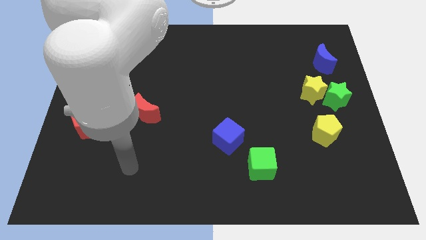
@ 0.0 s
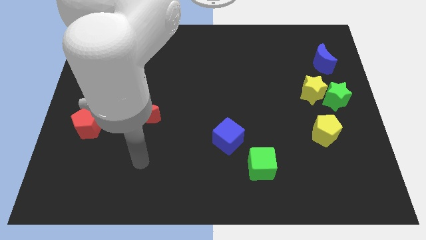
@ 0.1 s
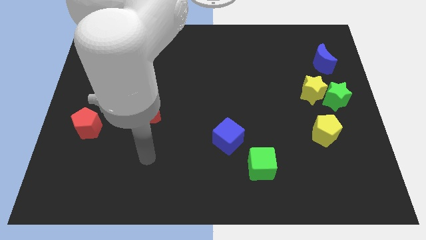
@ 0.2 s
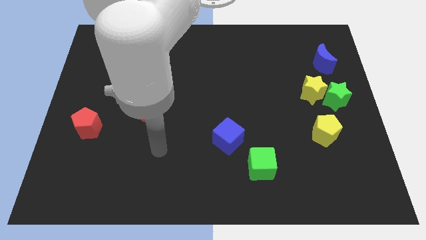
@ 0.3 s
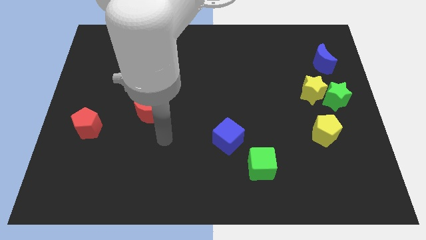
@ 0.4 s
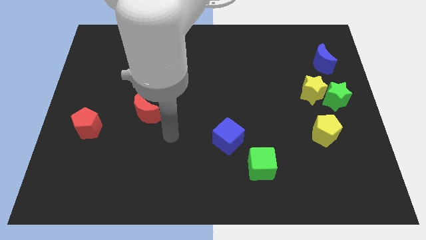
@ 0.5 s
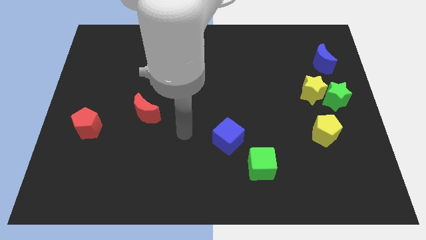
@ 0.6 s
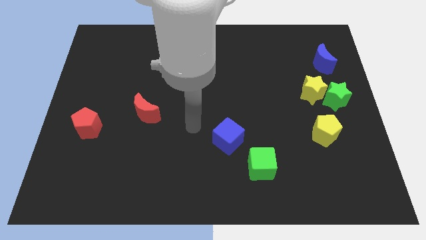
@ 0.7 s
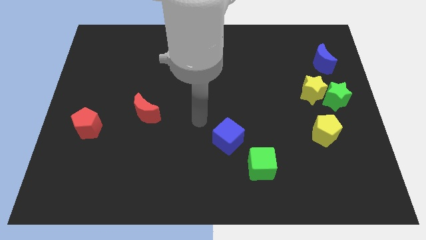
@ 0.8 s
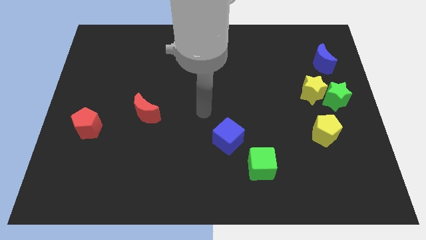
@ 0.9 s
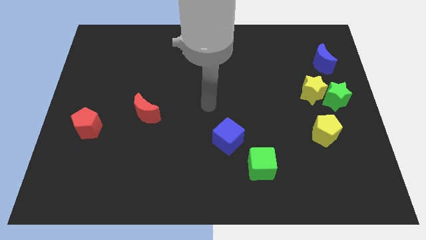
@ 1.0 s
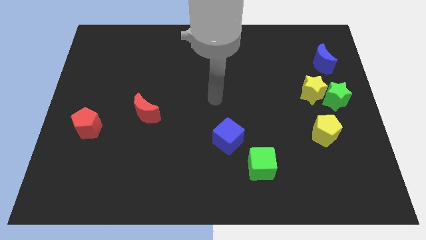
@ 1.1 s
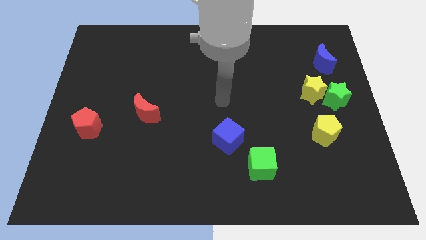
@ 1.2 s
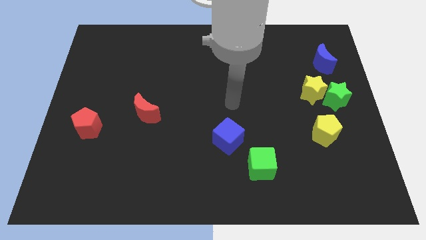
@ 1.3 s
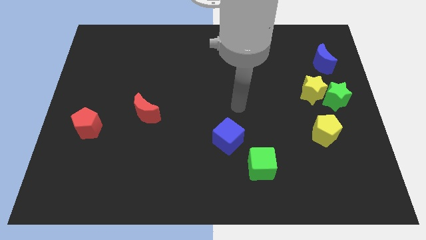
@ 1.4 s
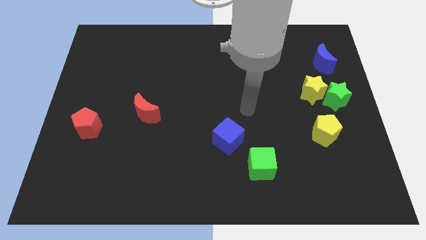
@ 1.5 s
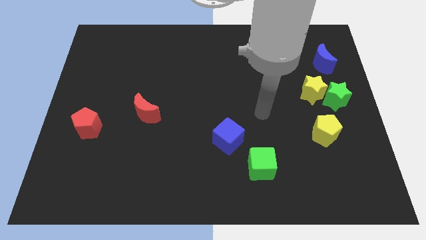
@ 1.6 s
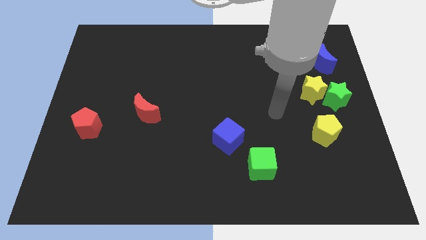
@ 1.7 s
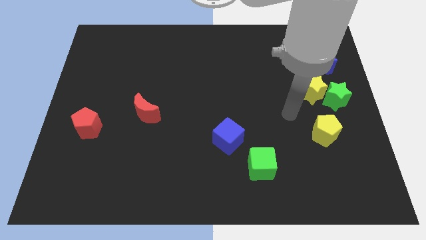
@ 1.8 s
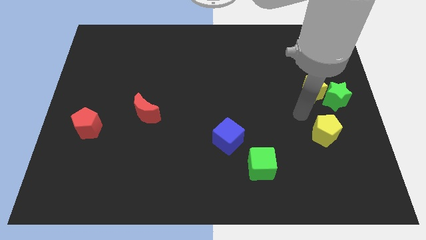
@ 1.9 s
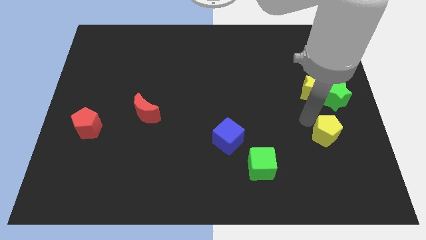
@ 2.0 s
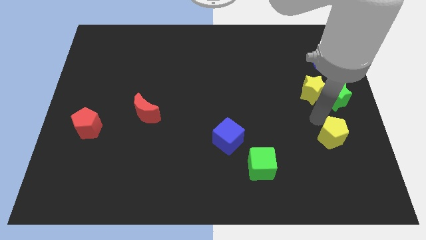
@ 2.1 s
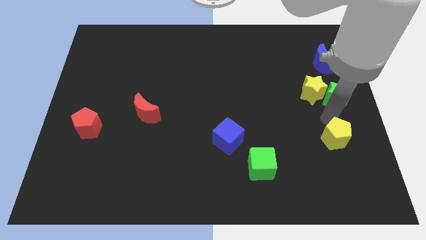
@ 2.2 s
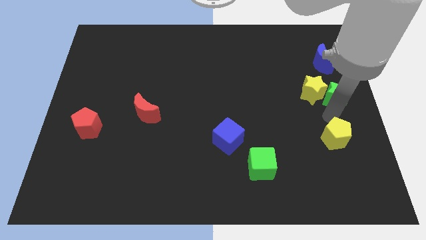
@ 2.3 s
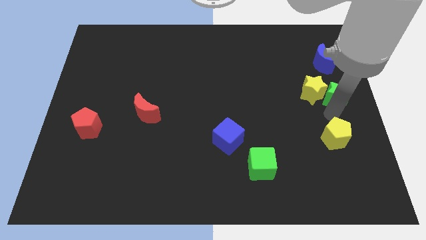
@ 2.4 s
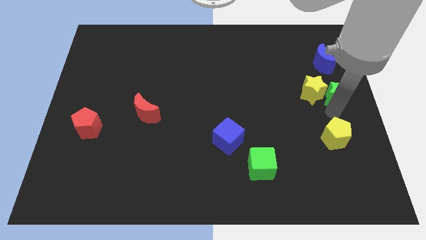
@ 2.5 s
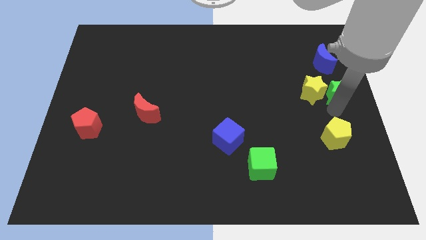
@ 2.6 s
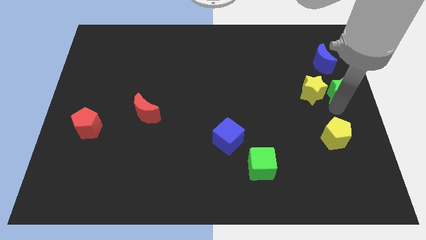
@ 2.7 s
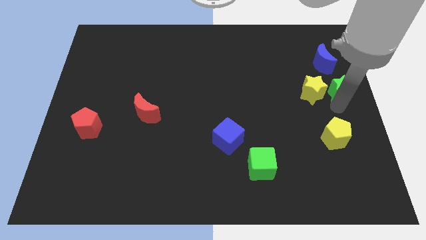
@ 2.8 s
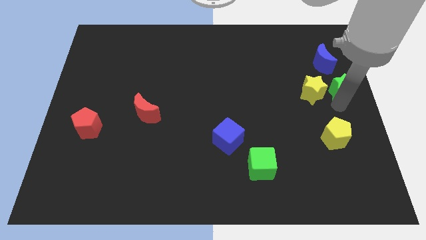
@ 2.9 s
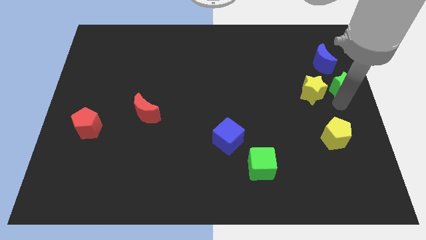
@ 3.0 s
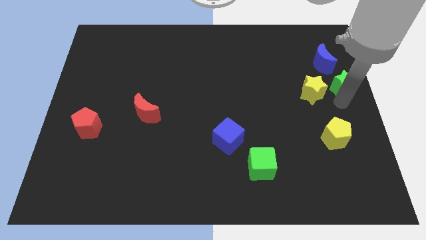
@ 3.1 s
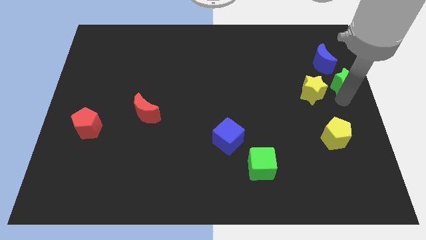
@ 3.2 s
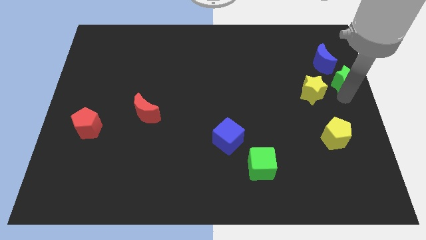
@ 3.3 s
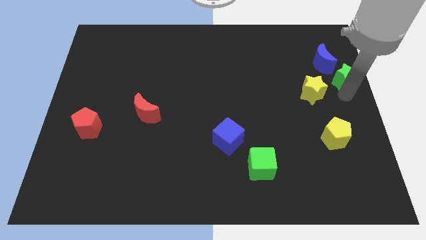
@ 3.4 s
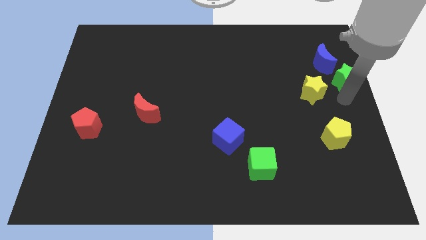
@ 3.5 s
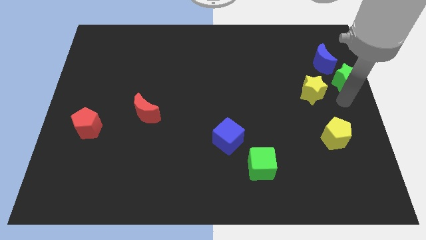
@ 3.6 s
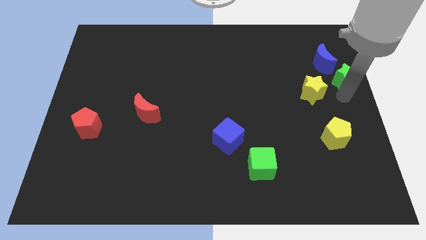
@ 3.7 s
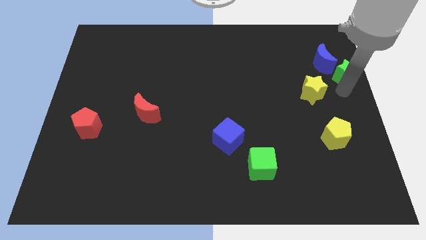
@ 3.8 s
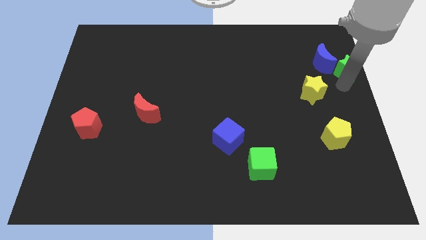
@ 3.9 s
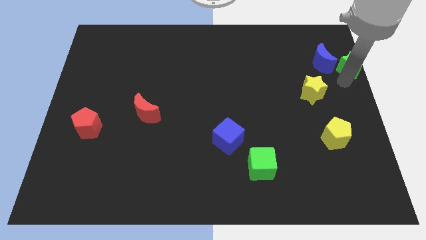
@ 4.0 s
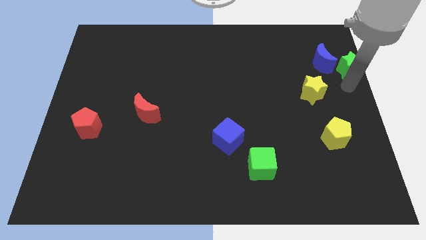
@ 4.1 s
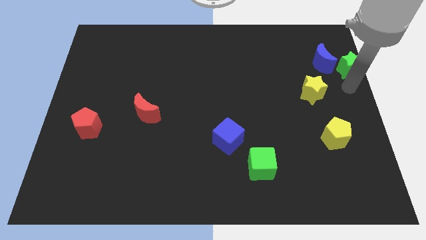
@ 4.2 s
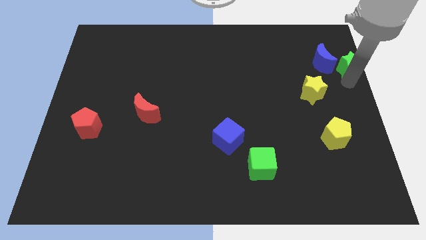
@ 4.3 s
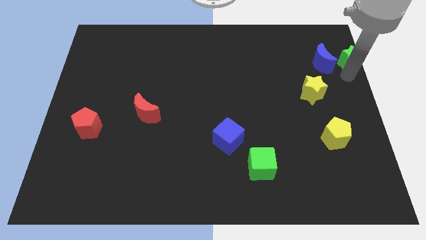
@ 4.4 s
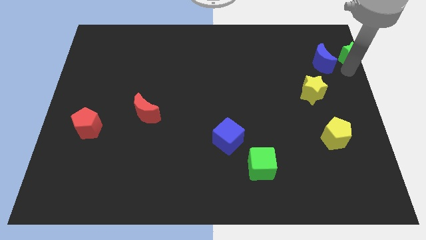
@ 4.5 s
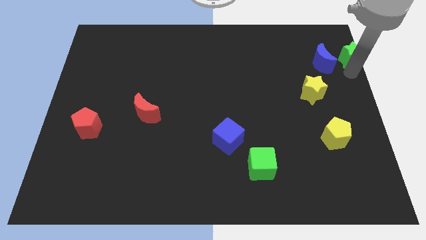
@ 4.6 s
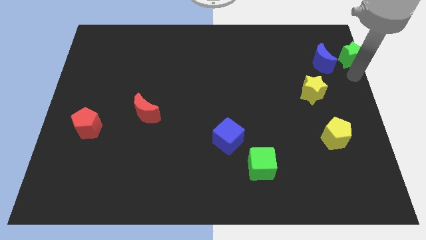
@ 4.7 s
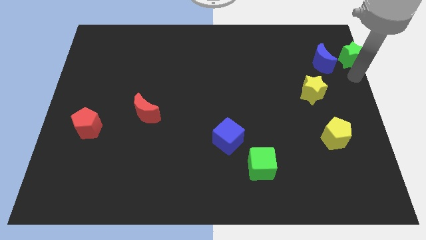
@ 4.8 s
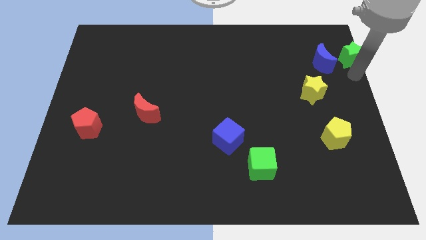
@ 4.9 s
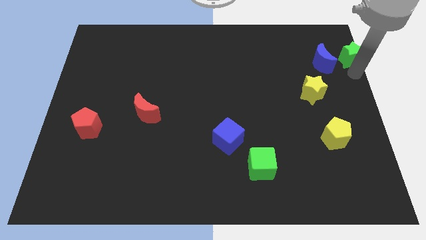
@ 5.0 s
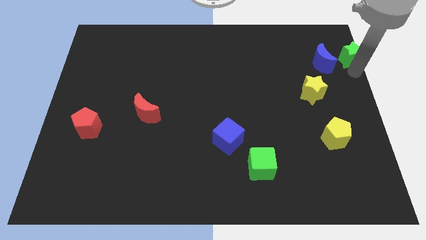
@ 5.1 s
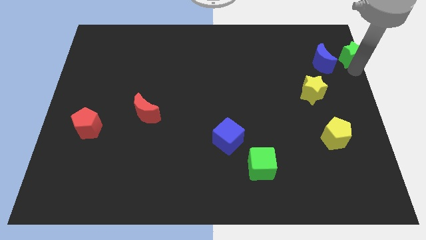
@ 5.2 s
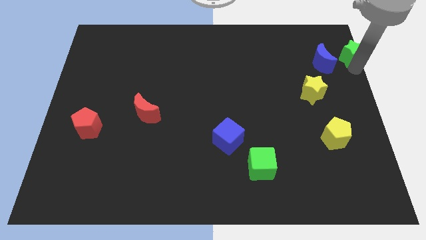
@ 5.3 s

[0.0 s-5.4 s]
slide the green star to the upper right corner

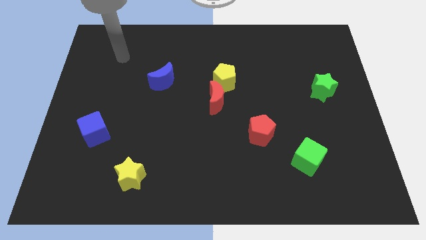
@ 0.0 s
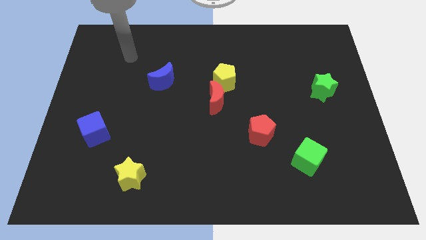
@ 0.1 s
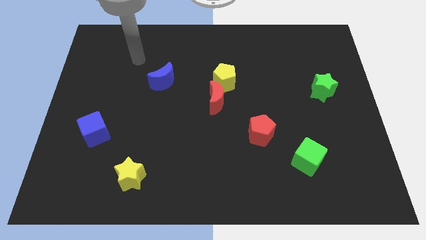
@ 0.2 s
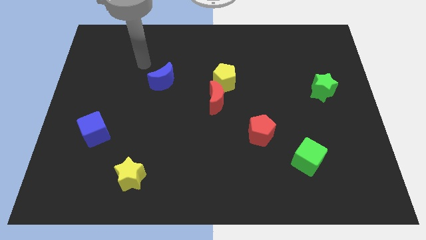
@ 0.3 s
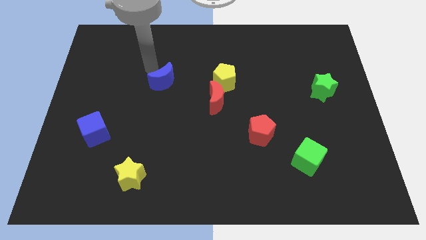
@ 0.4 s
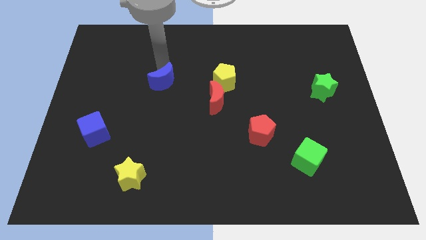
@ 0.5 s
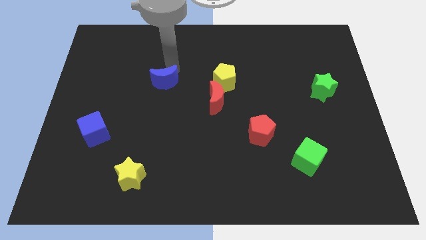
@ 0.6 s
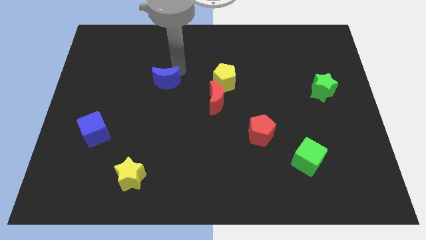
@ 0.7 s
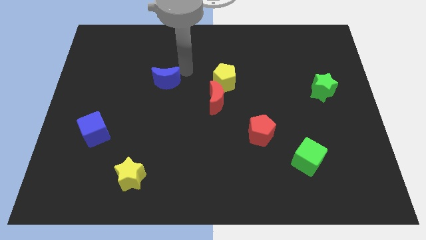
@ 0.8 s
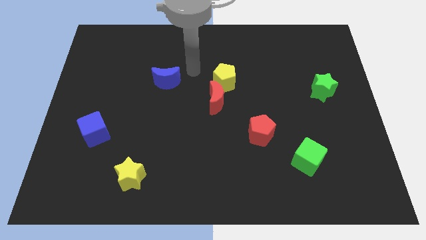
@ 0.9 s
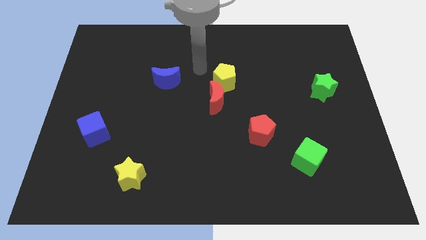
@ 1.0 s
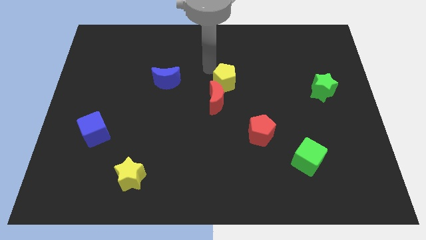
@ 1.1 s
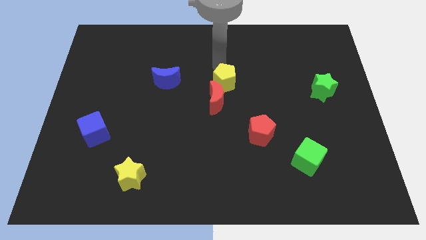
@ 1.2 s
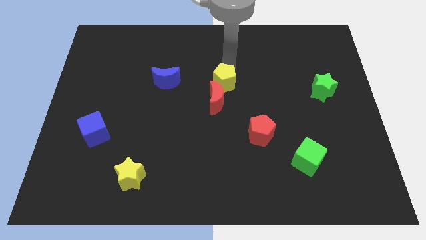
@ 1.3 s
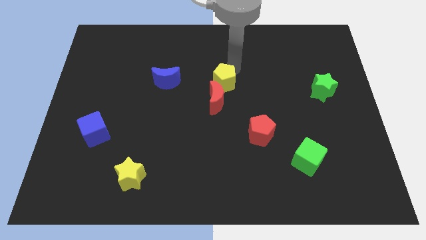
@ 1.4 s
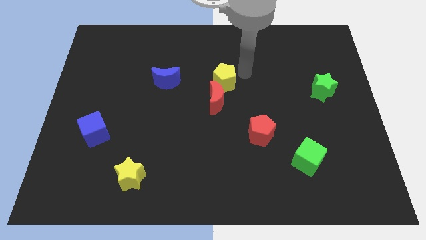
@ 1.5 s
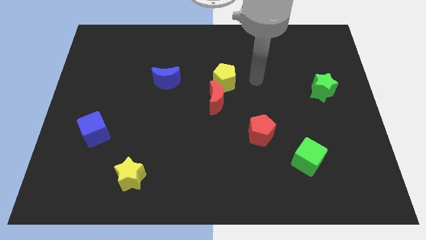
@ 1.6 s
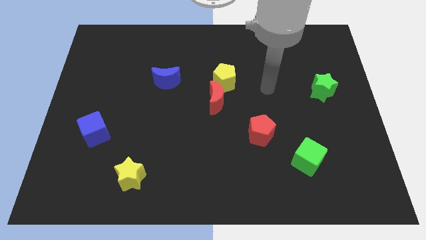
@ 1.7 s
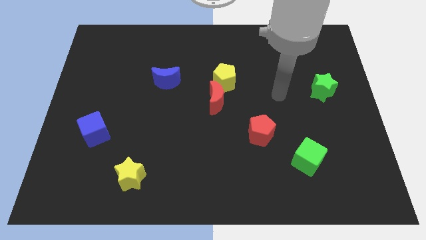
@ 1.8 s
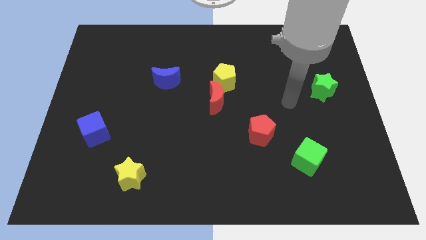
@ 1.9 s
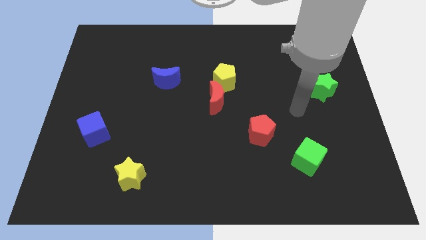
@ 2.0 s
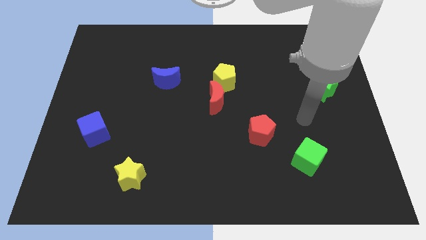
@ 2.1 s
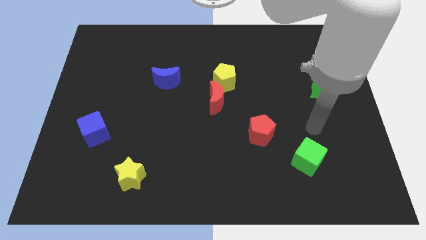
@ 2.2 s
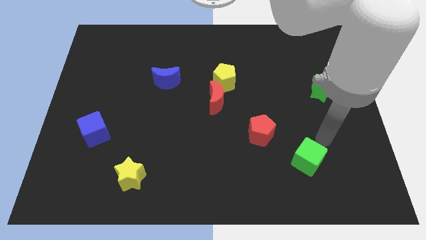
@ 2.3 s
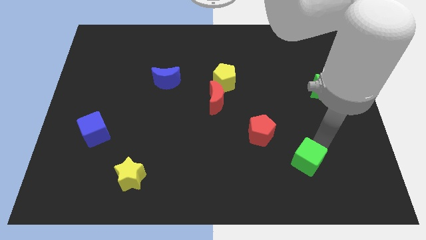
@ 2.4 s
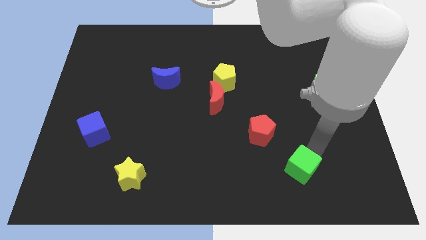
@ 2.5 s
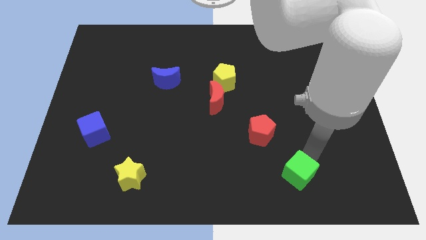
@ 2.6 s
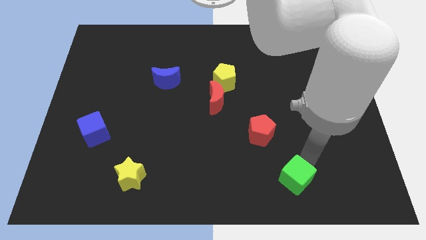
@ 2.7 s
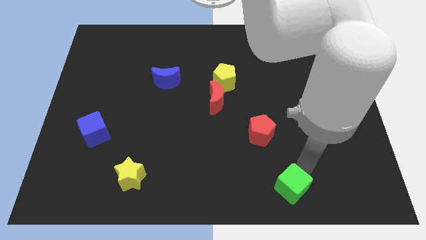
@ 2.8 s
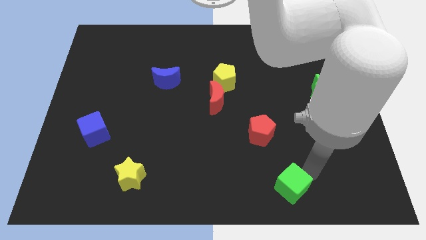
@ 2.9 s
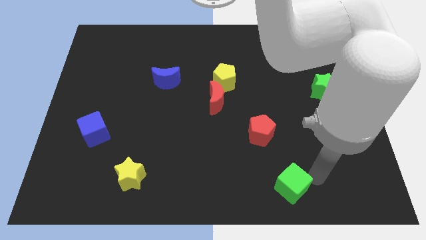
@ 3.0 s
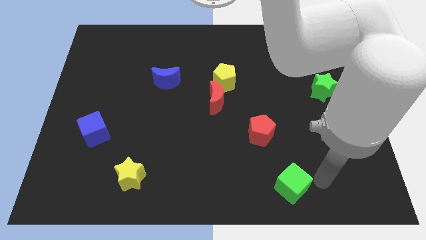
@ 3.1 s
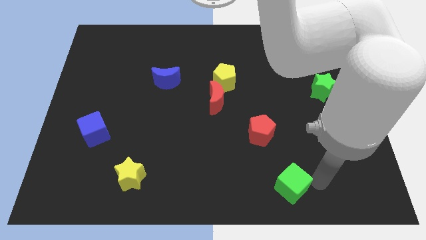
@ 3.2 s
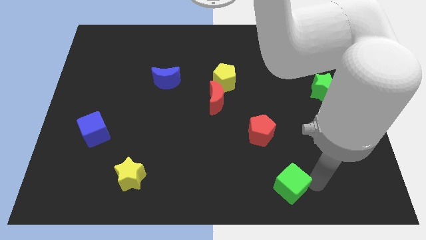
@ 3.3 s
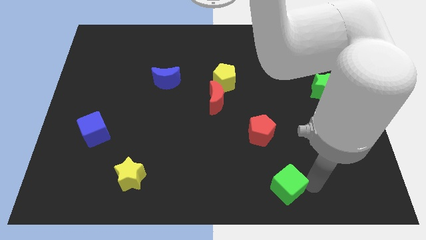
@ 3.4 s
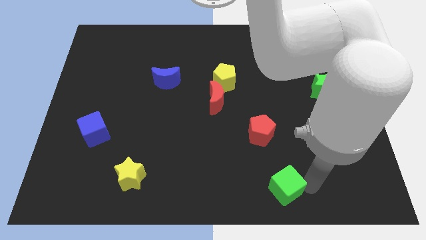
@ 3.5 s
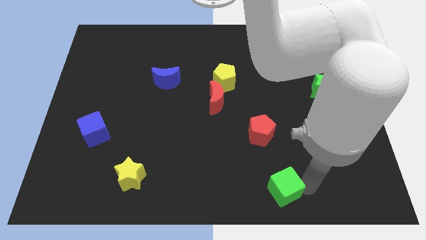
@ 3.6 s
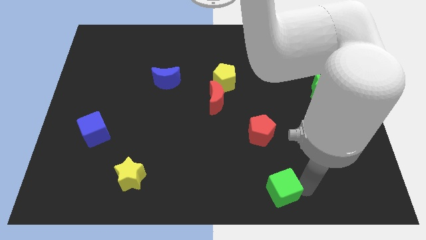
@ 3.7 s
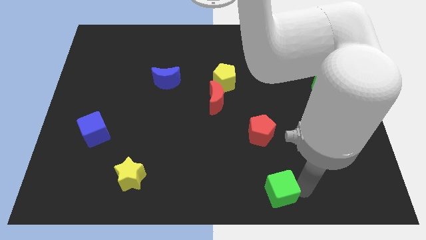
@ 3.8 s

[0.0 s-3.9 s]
slide the green cube to the bottom side
